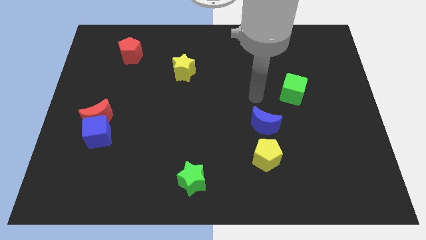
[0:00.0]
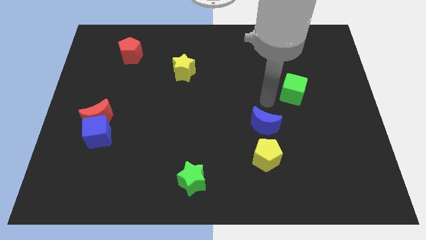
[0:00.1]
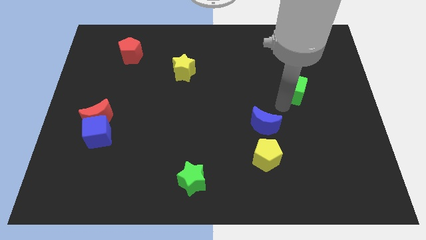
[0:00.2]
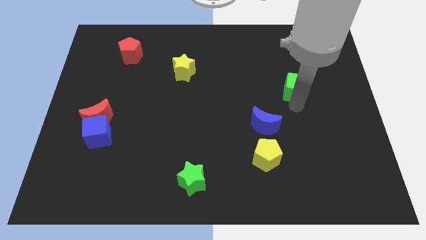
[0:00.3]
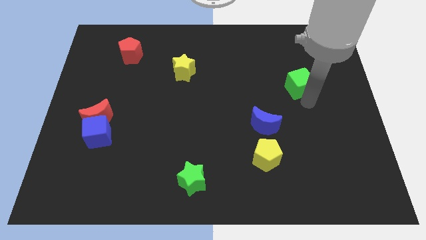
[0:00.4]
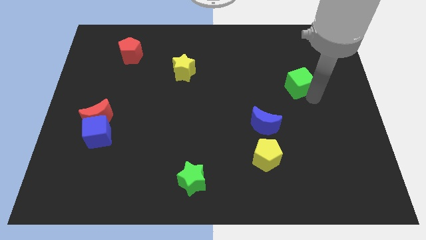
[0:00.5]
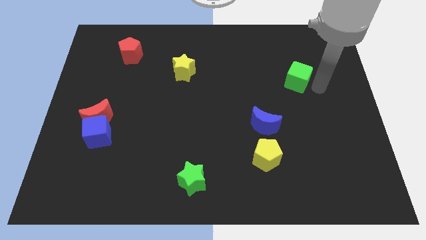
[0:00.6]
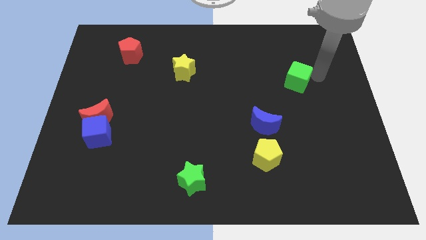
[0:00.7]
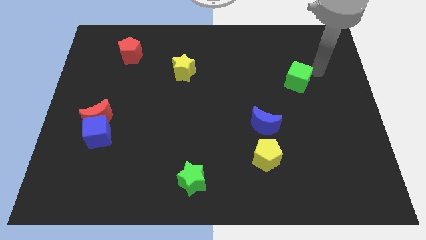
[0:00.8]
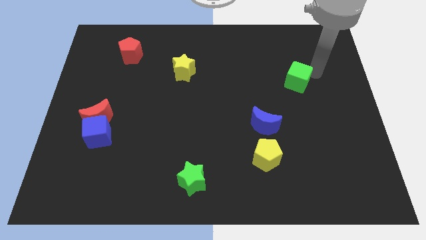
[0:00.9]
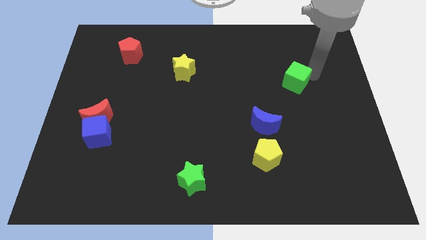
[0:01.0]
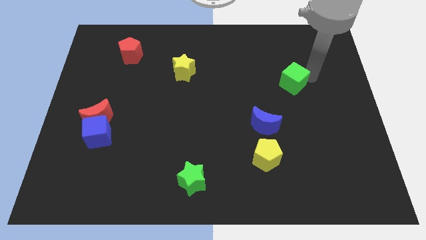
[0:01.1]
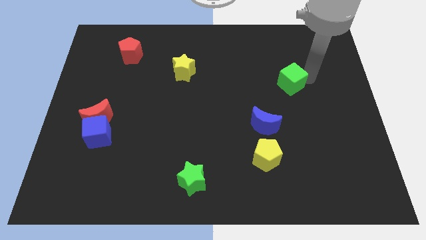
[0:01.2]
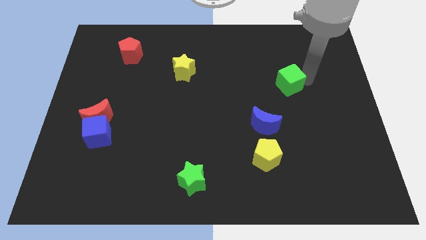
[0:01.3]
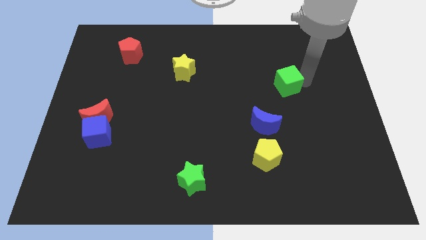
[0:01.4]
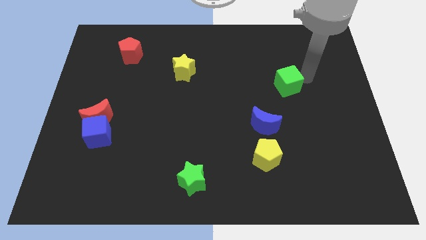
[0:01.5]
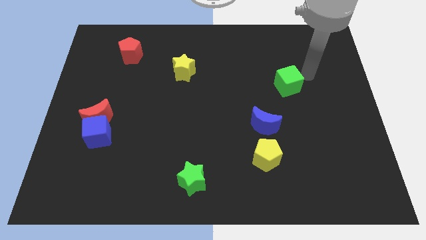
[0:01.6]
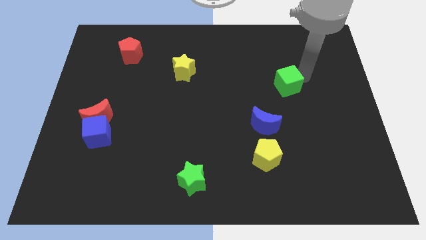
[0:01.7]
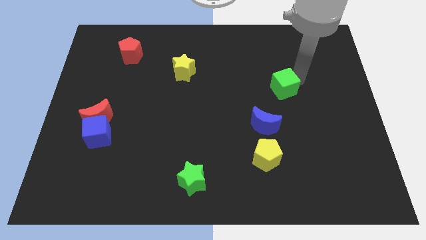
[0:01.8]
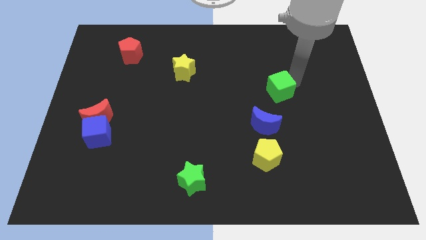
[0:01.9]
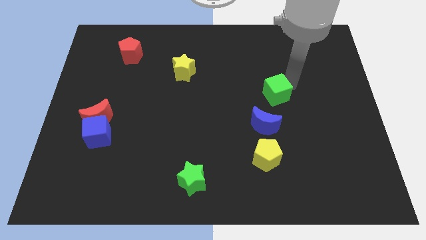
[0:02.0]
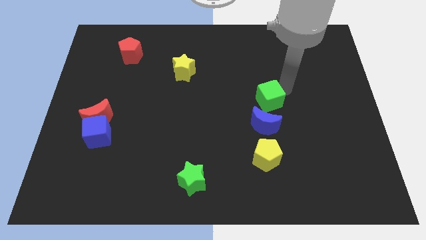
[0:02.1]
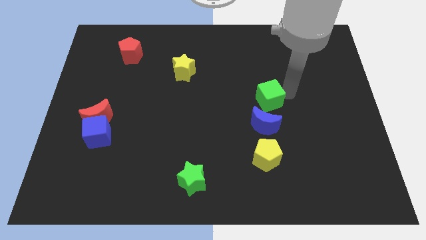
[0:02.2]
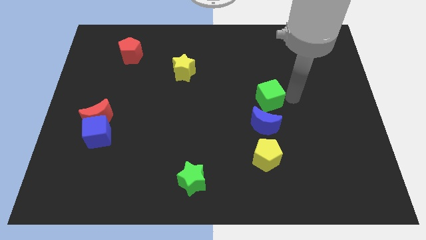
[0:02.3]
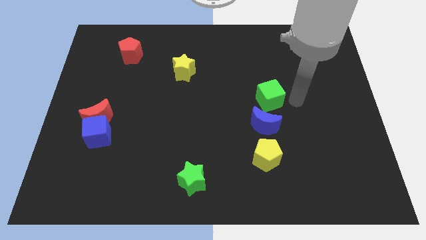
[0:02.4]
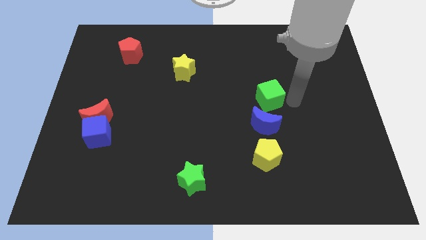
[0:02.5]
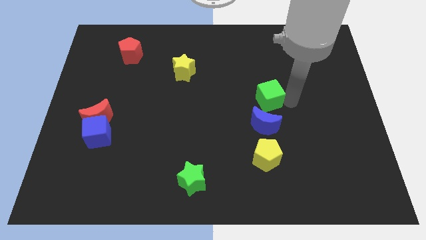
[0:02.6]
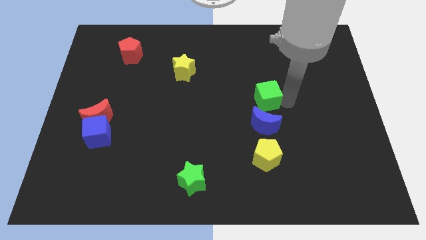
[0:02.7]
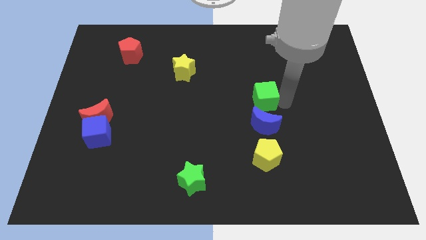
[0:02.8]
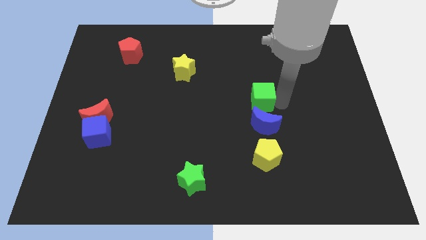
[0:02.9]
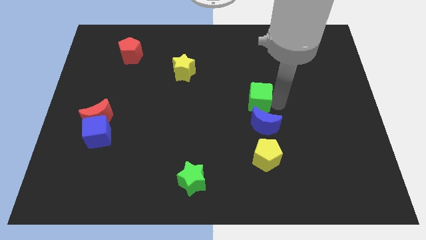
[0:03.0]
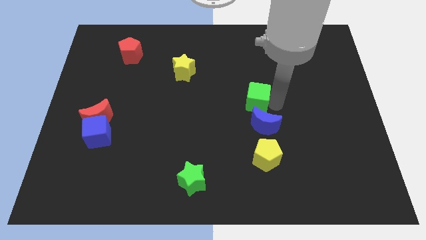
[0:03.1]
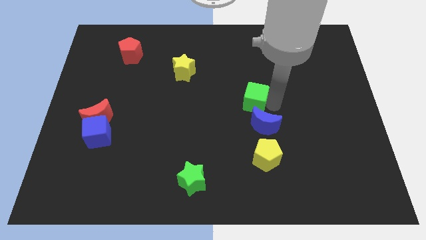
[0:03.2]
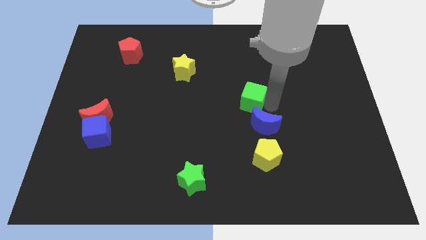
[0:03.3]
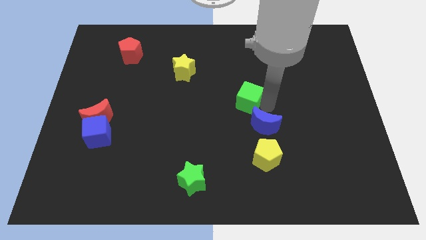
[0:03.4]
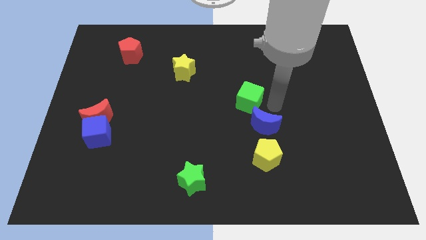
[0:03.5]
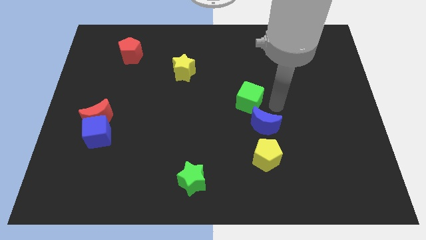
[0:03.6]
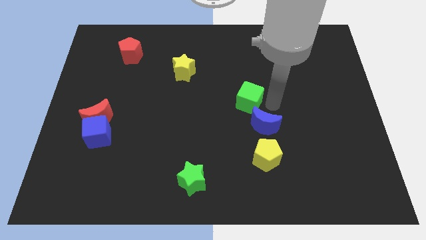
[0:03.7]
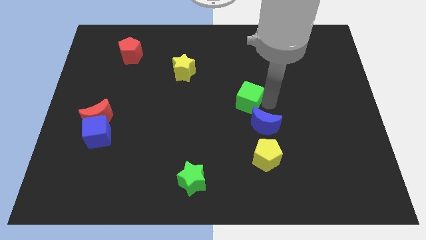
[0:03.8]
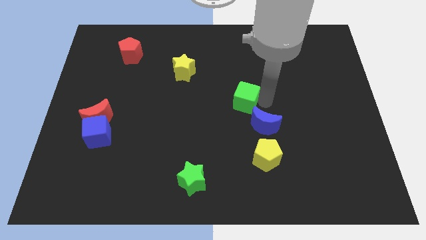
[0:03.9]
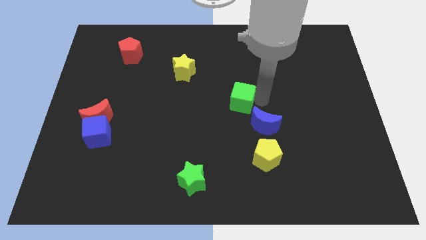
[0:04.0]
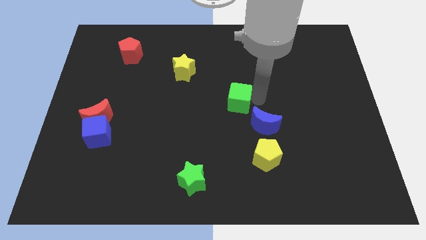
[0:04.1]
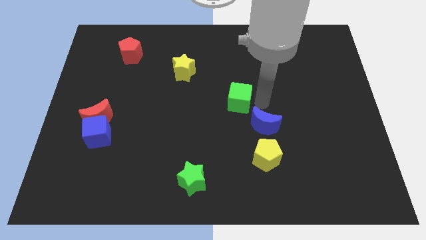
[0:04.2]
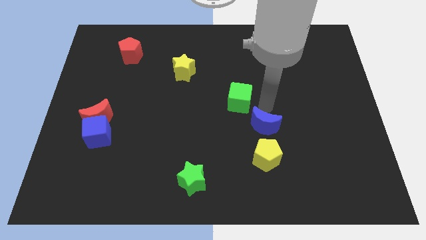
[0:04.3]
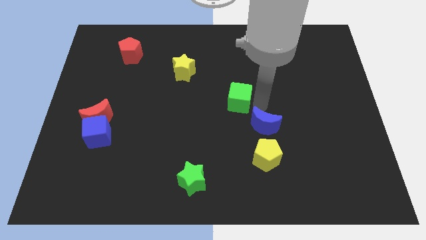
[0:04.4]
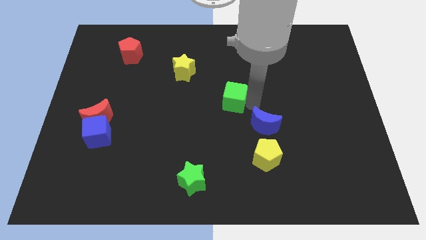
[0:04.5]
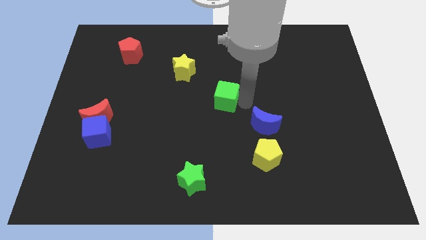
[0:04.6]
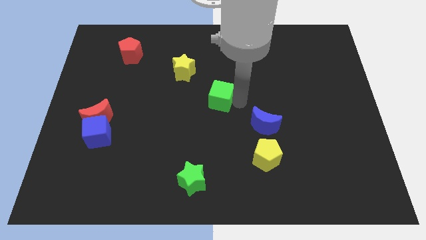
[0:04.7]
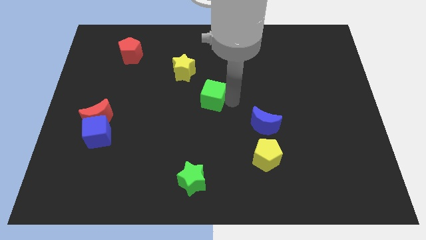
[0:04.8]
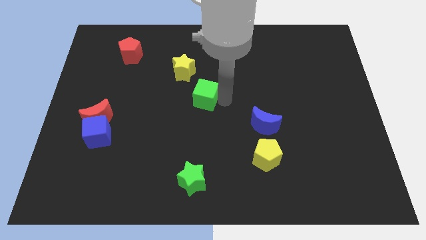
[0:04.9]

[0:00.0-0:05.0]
move the green cube to the left

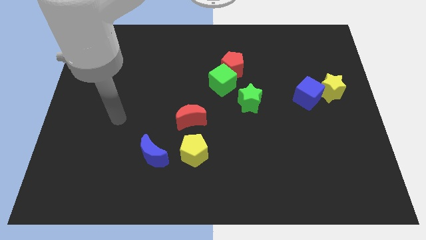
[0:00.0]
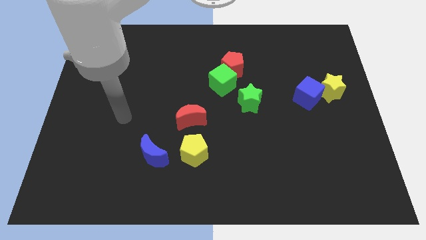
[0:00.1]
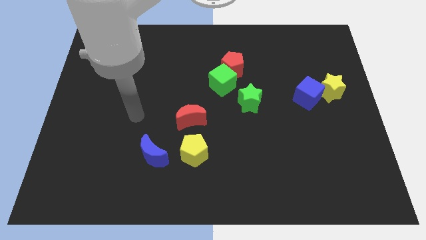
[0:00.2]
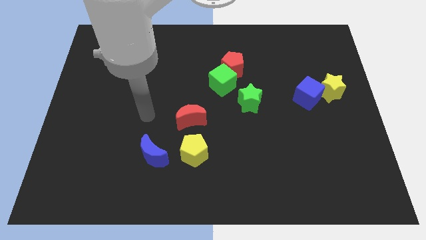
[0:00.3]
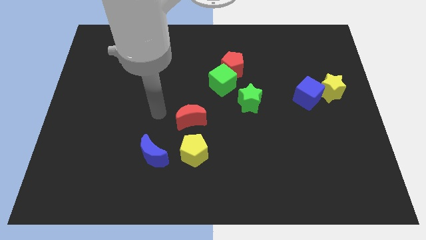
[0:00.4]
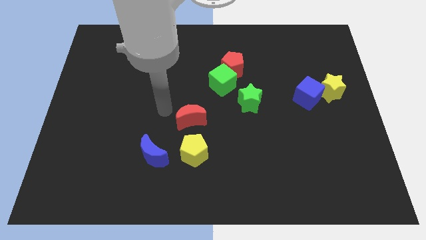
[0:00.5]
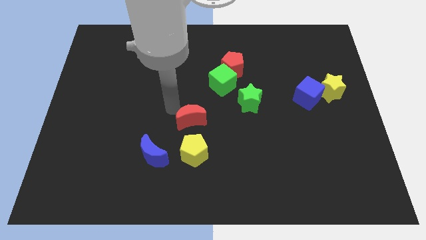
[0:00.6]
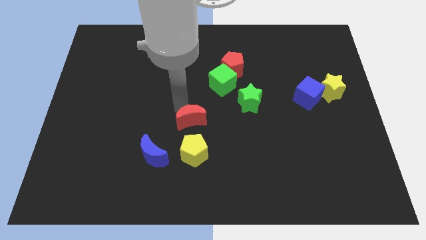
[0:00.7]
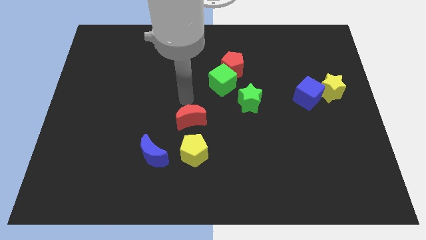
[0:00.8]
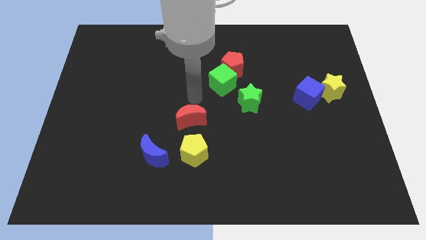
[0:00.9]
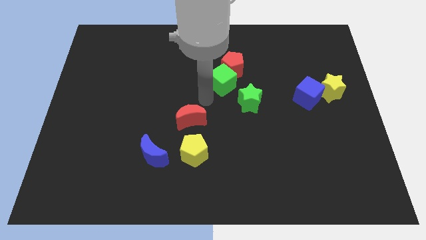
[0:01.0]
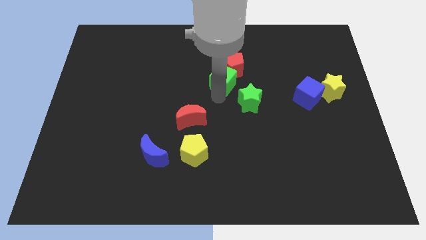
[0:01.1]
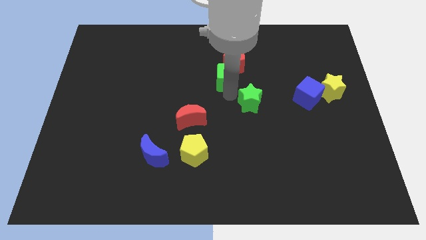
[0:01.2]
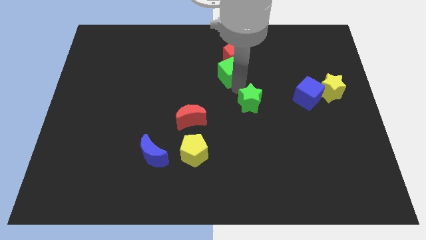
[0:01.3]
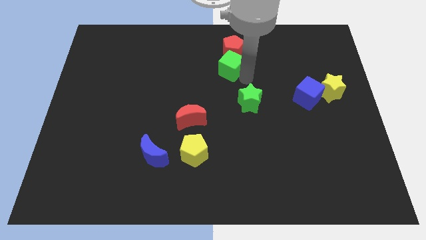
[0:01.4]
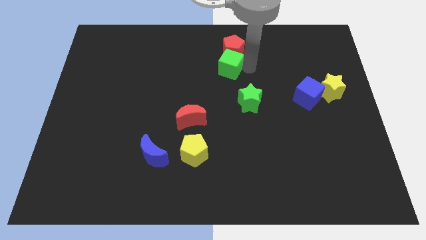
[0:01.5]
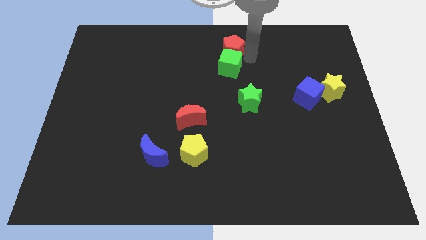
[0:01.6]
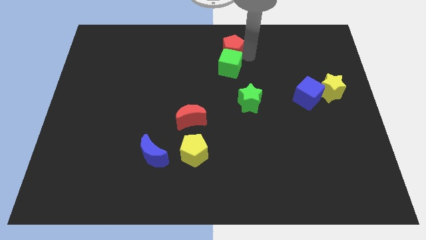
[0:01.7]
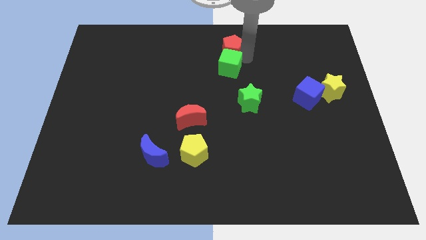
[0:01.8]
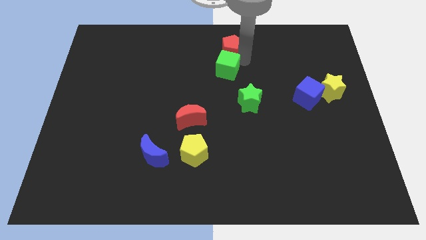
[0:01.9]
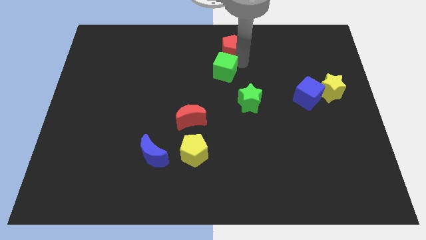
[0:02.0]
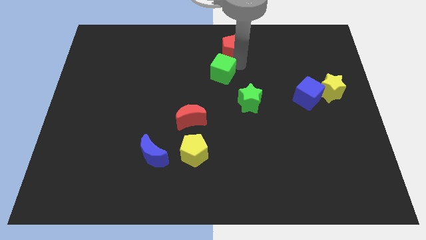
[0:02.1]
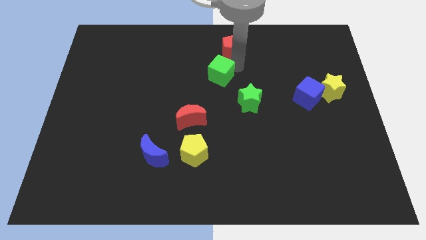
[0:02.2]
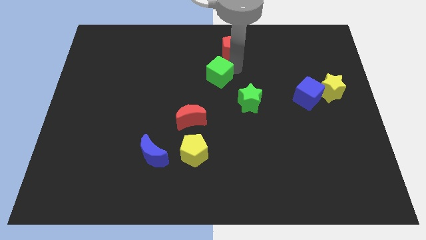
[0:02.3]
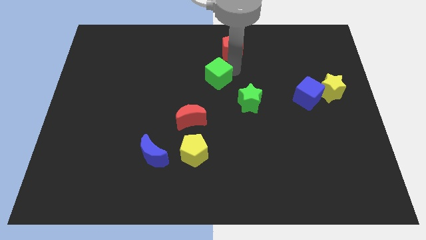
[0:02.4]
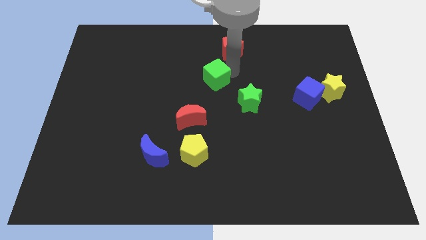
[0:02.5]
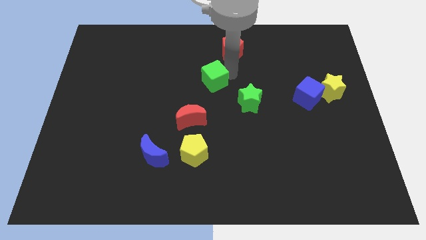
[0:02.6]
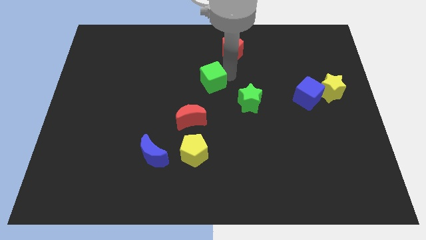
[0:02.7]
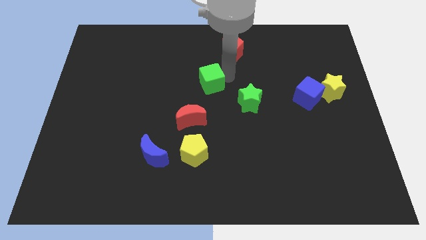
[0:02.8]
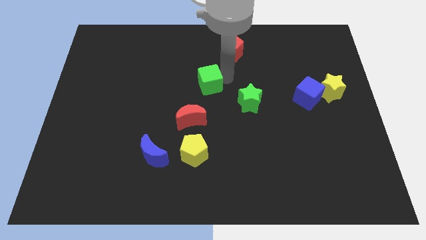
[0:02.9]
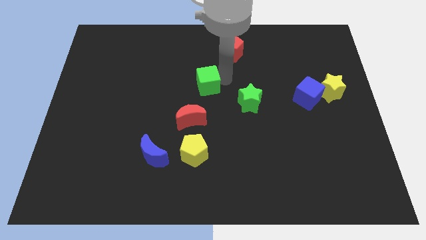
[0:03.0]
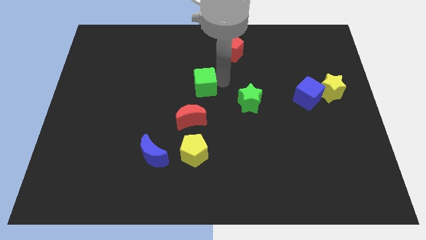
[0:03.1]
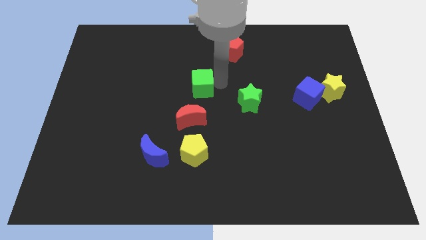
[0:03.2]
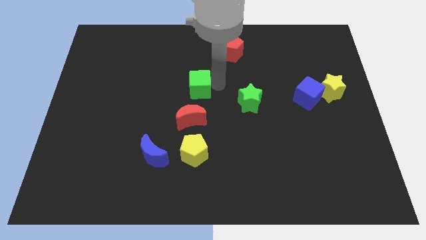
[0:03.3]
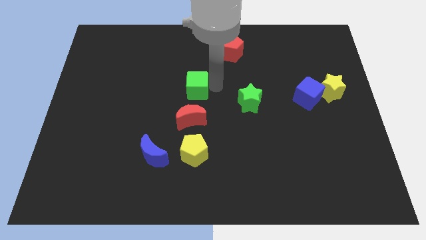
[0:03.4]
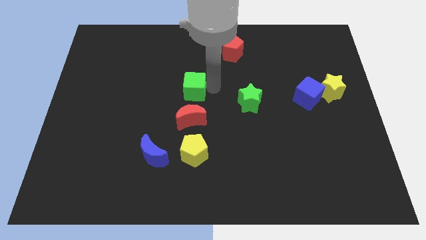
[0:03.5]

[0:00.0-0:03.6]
push the green cube left slightly
